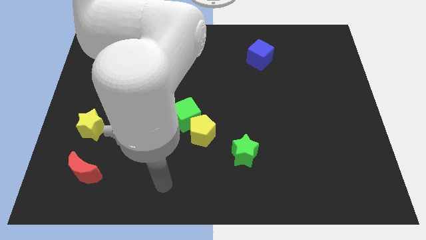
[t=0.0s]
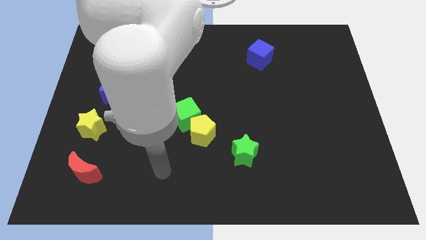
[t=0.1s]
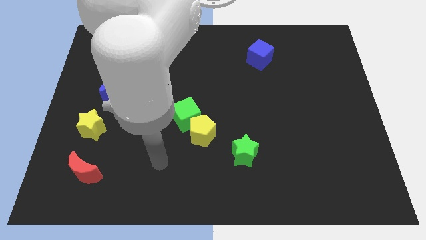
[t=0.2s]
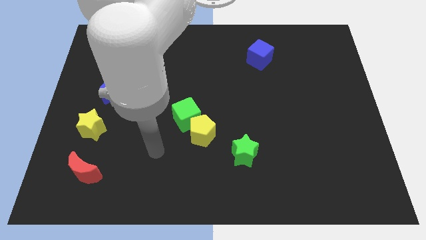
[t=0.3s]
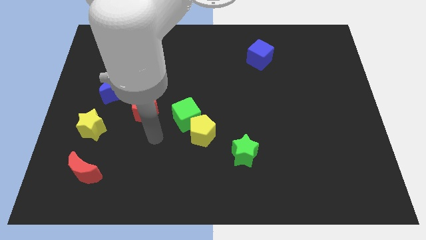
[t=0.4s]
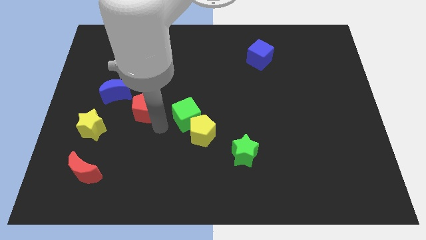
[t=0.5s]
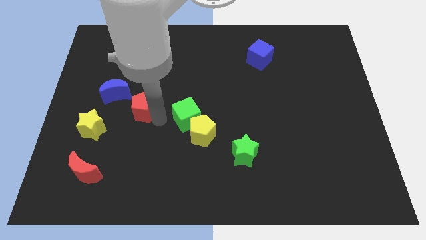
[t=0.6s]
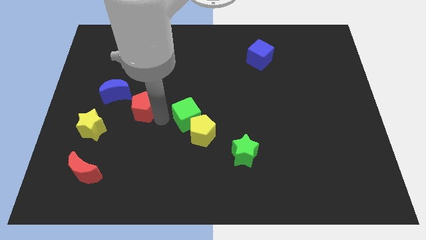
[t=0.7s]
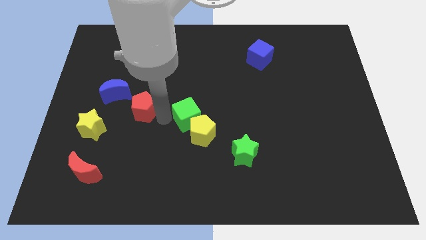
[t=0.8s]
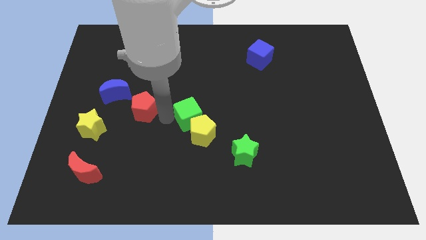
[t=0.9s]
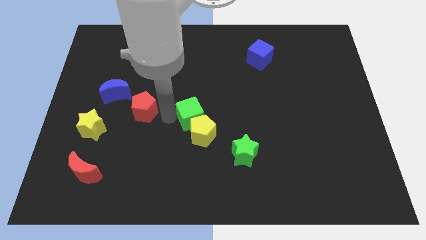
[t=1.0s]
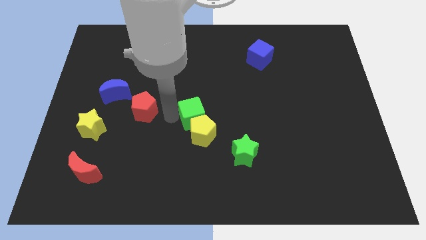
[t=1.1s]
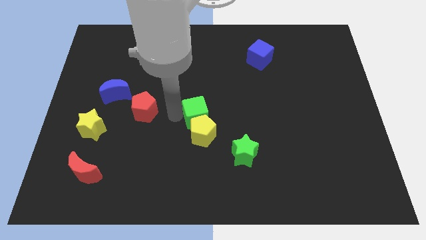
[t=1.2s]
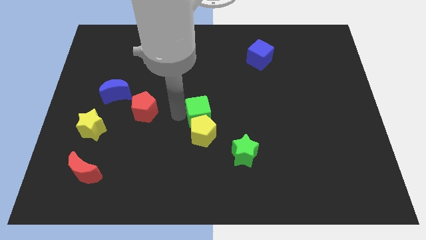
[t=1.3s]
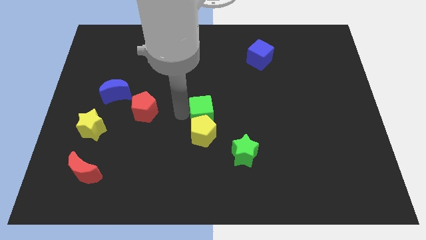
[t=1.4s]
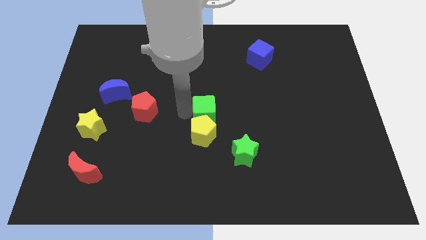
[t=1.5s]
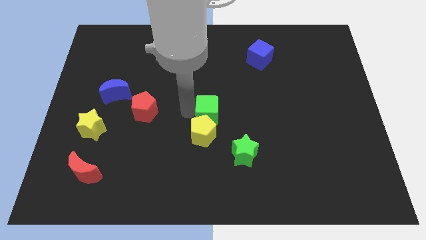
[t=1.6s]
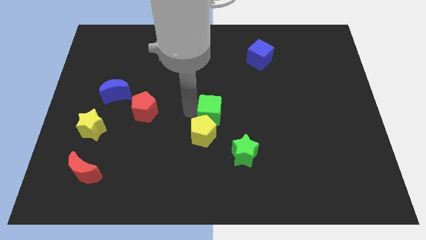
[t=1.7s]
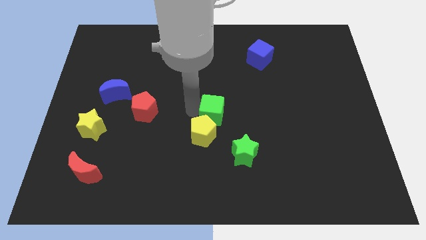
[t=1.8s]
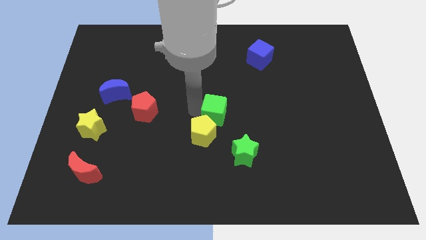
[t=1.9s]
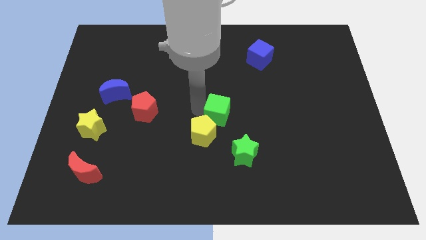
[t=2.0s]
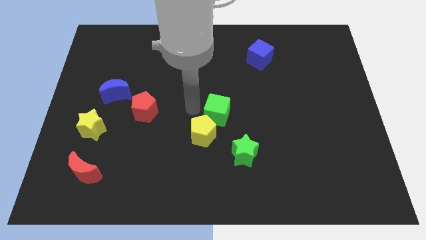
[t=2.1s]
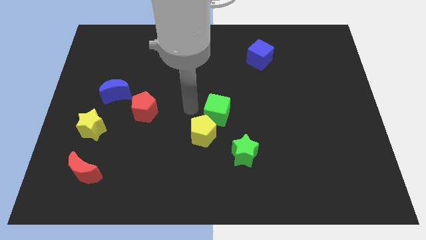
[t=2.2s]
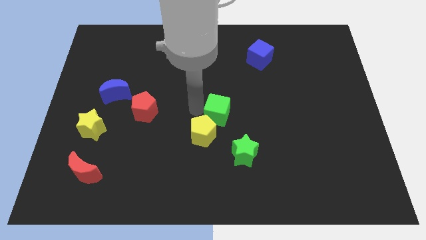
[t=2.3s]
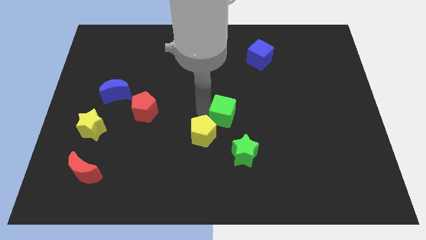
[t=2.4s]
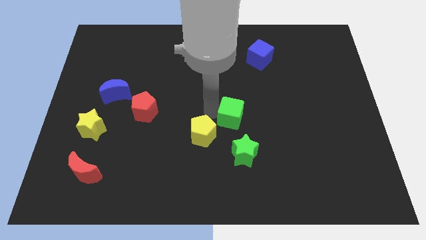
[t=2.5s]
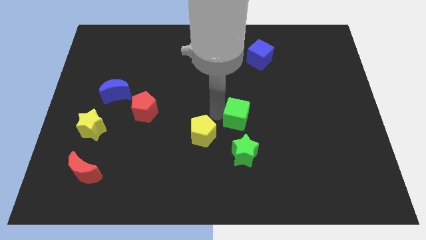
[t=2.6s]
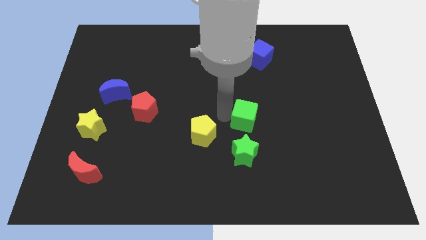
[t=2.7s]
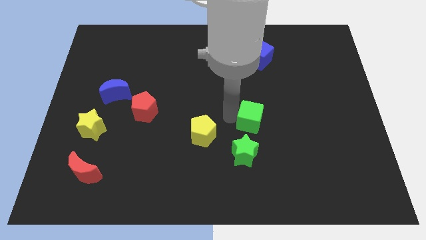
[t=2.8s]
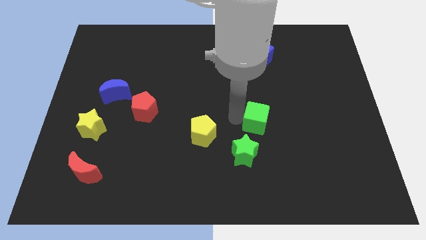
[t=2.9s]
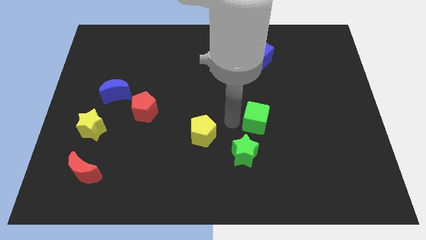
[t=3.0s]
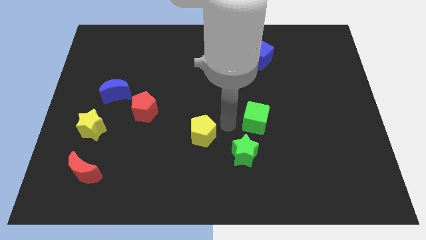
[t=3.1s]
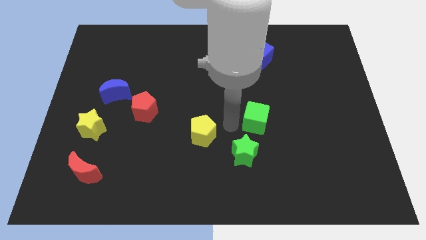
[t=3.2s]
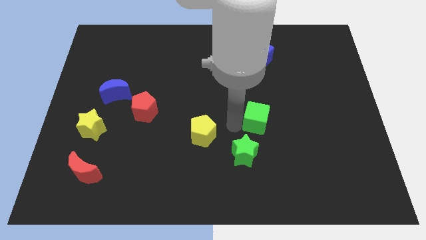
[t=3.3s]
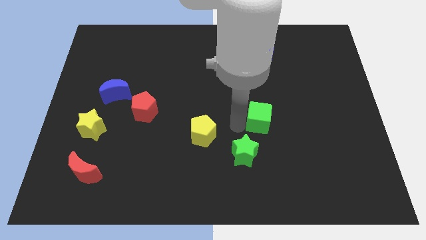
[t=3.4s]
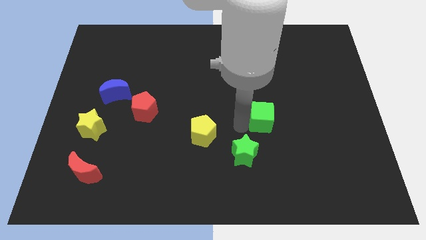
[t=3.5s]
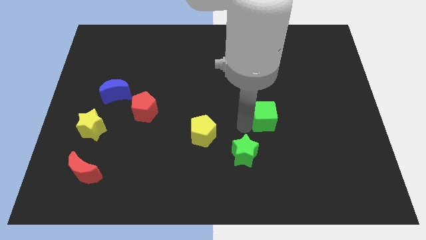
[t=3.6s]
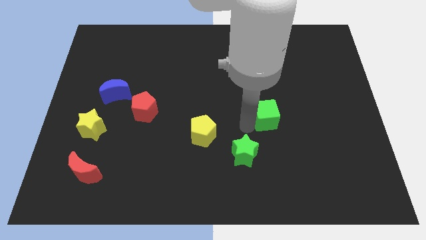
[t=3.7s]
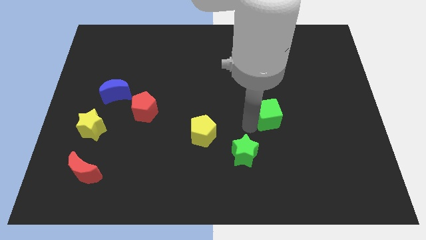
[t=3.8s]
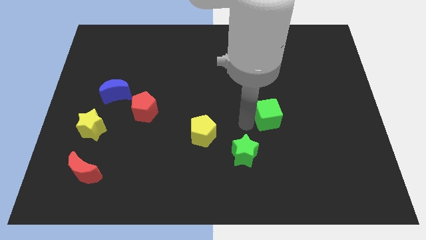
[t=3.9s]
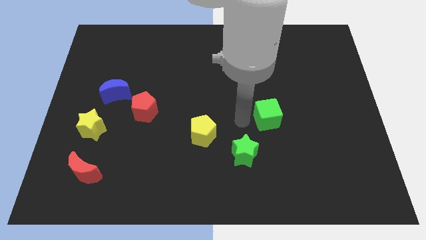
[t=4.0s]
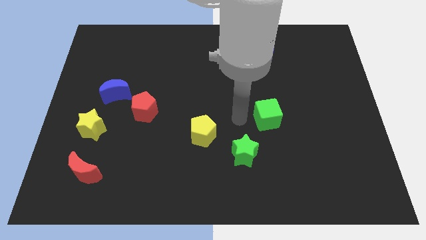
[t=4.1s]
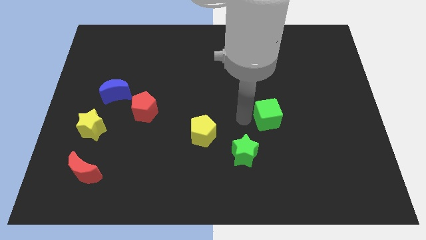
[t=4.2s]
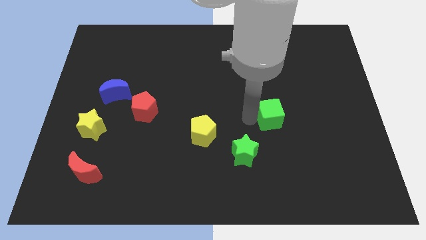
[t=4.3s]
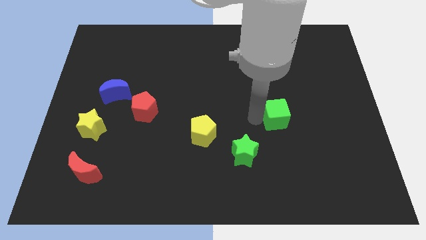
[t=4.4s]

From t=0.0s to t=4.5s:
slide the green cube to the right

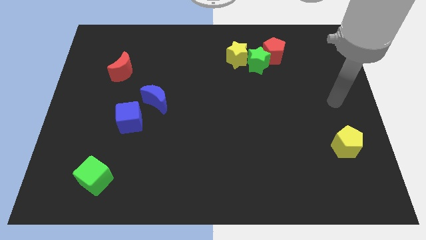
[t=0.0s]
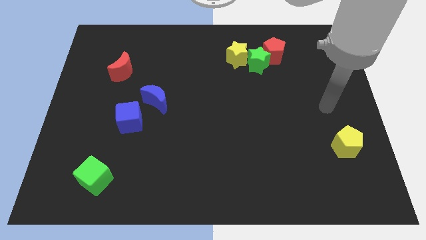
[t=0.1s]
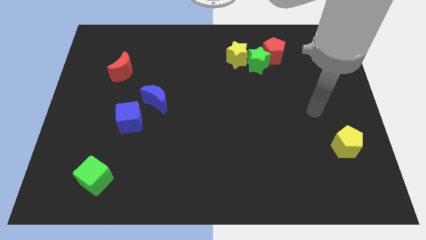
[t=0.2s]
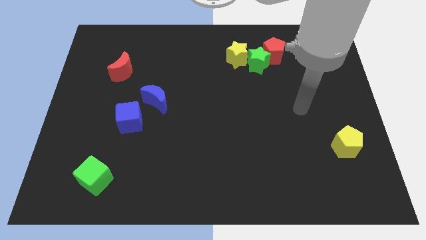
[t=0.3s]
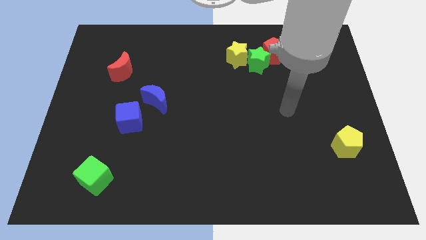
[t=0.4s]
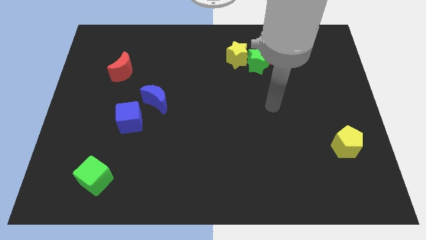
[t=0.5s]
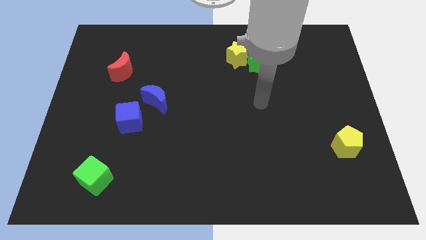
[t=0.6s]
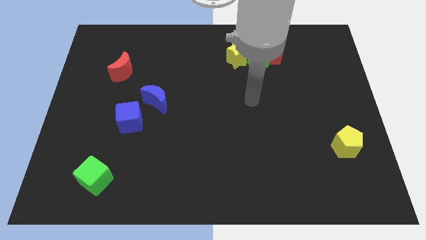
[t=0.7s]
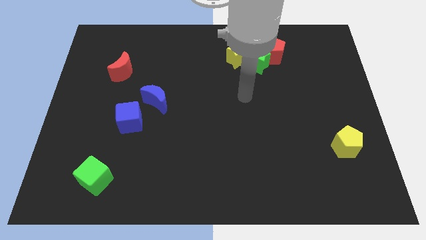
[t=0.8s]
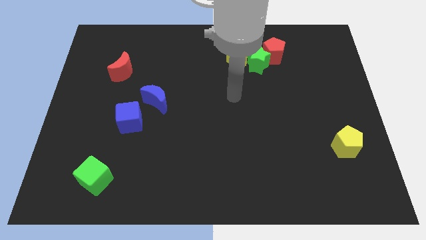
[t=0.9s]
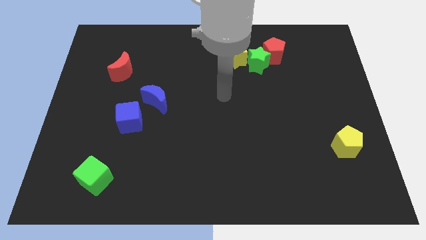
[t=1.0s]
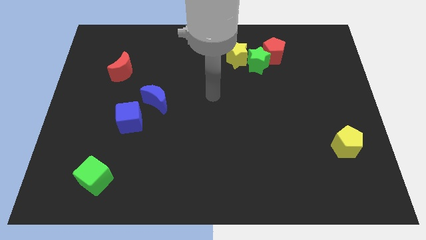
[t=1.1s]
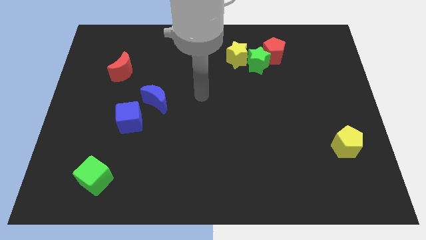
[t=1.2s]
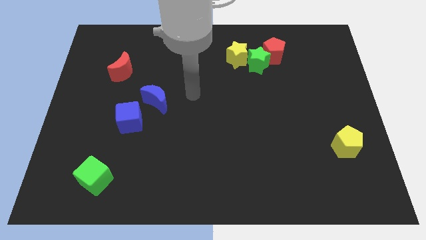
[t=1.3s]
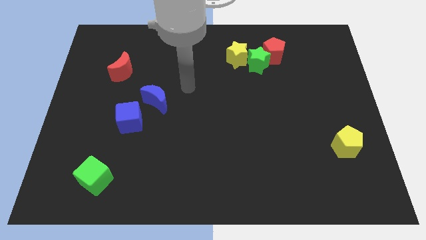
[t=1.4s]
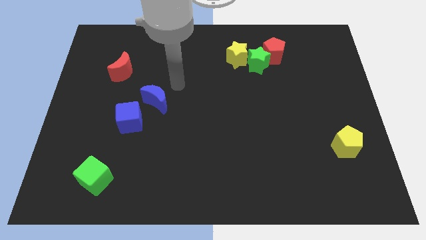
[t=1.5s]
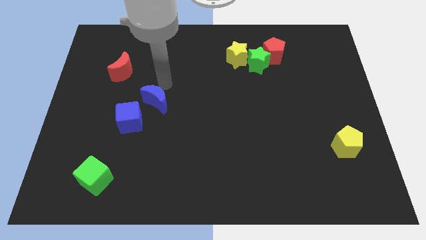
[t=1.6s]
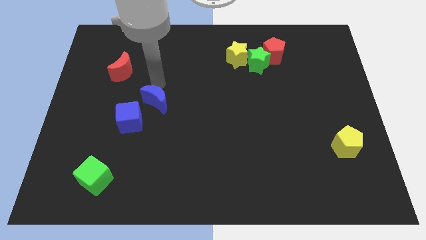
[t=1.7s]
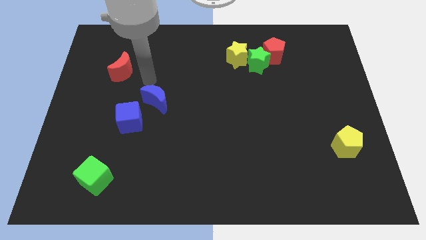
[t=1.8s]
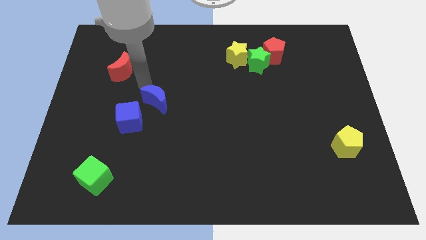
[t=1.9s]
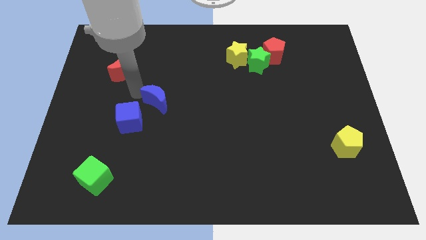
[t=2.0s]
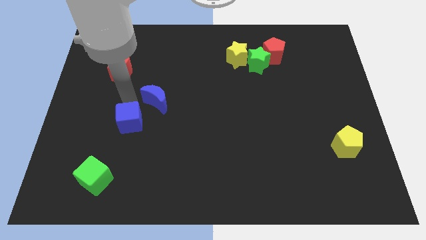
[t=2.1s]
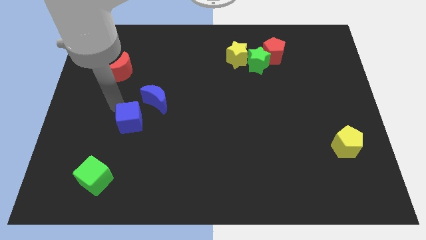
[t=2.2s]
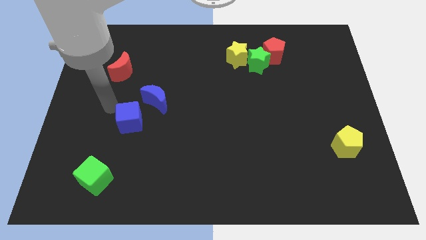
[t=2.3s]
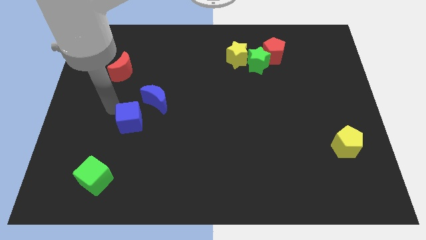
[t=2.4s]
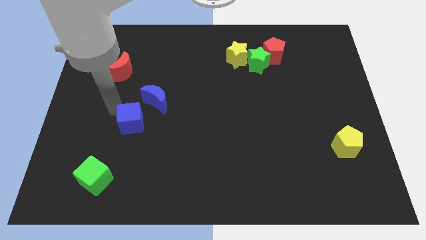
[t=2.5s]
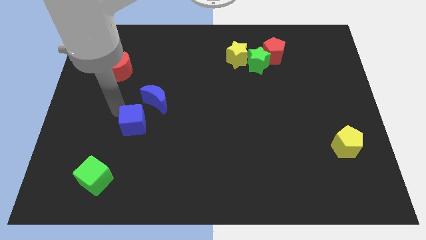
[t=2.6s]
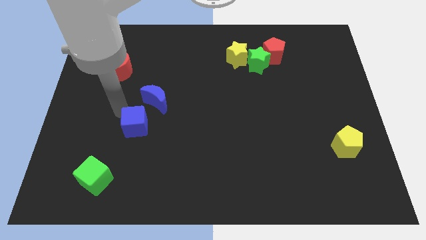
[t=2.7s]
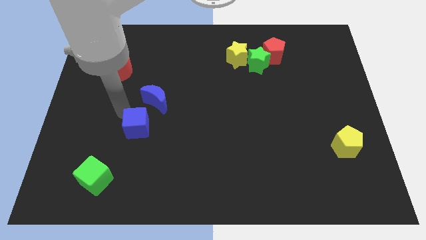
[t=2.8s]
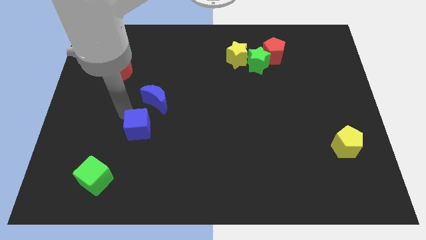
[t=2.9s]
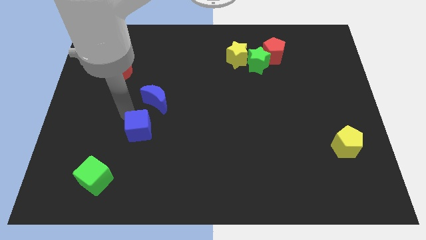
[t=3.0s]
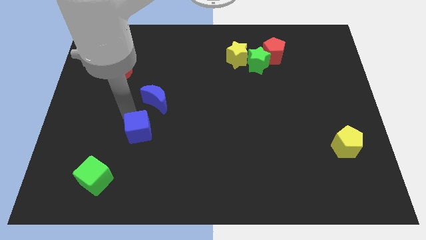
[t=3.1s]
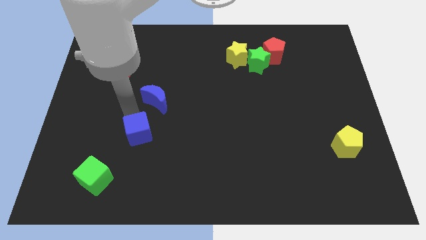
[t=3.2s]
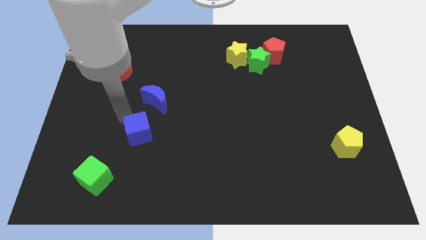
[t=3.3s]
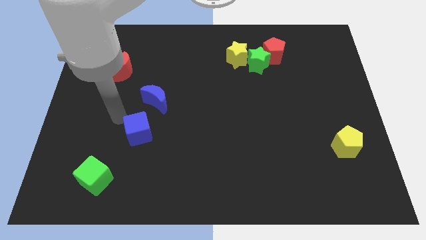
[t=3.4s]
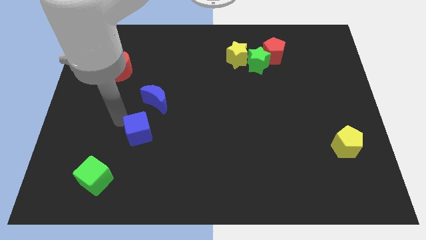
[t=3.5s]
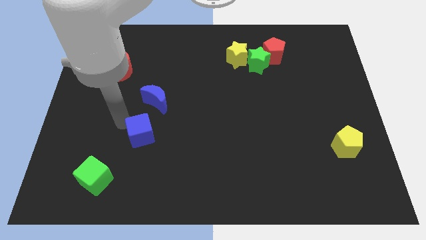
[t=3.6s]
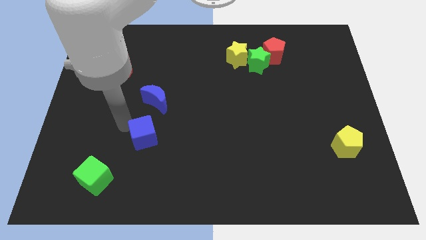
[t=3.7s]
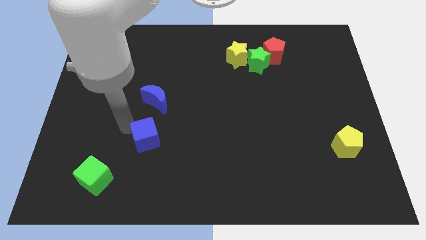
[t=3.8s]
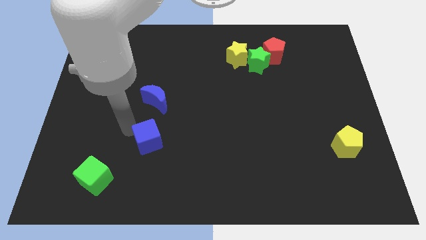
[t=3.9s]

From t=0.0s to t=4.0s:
move the blue cube diagonally down and to the right slightly
